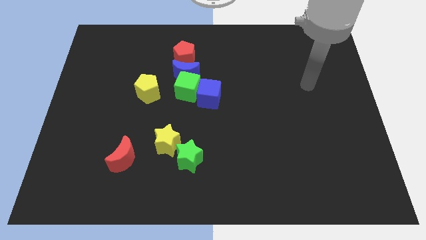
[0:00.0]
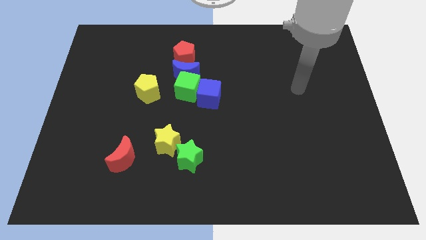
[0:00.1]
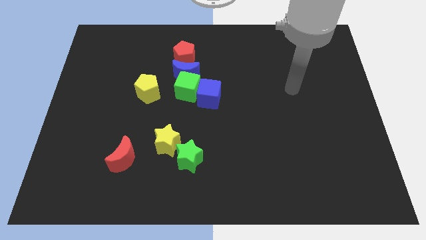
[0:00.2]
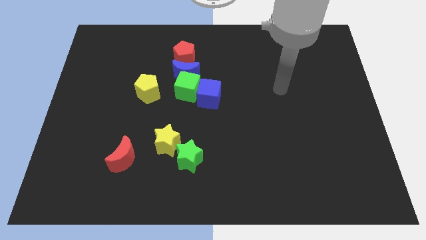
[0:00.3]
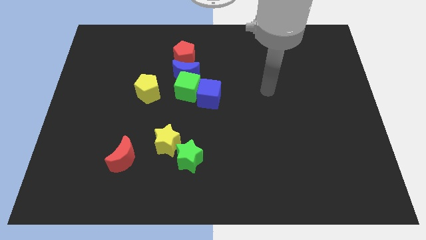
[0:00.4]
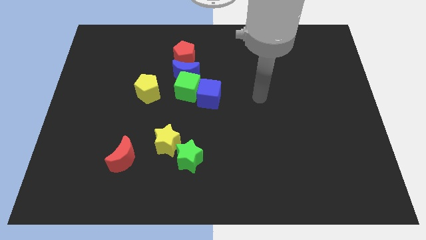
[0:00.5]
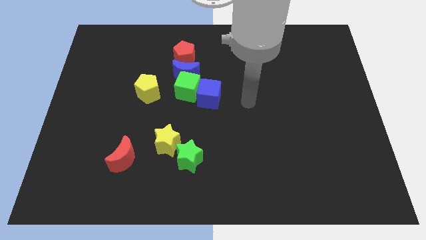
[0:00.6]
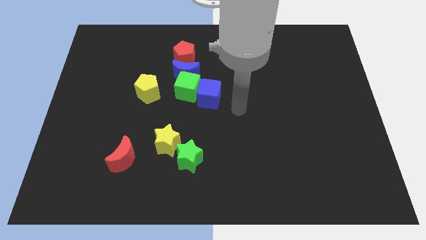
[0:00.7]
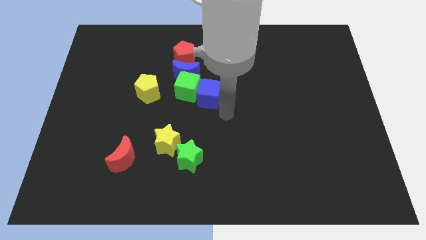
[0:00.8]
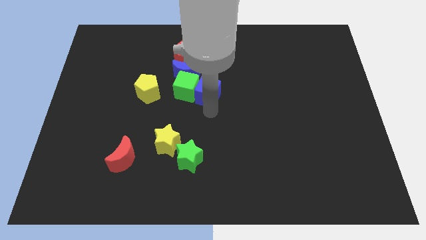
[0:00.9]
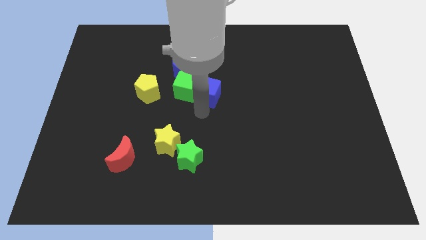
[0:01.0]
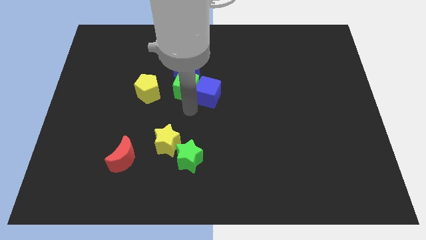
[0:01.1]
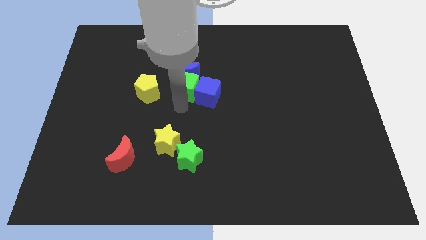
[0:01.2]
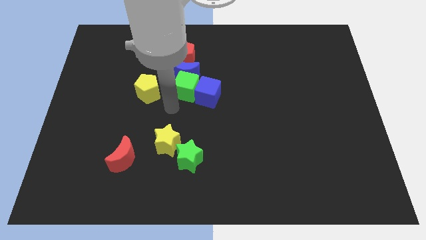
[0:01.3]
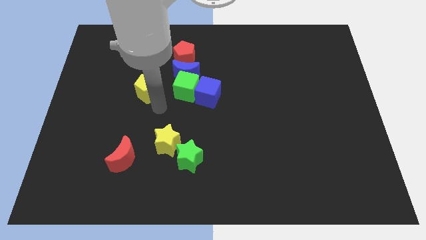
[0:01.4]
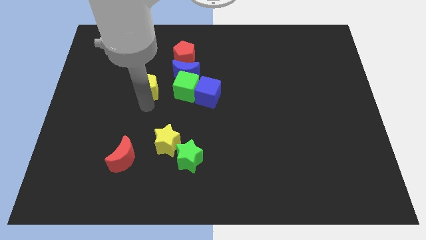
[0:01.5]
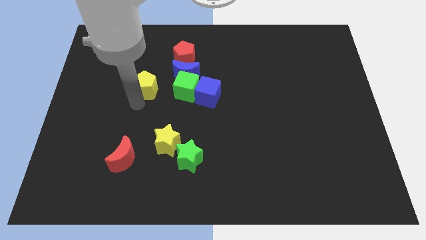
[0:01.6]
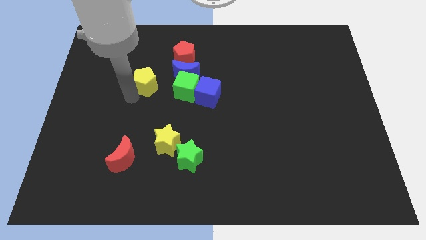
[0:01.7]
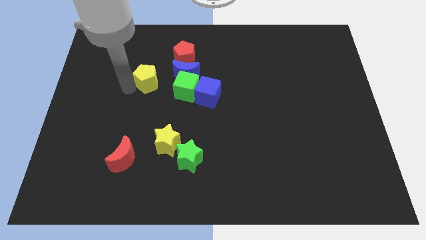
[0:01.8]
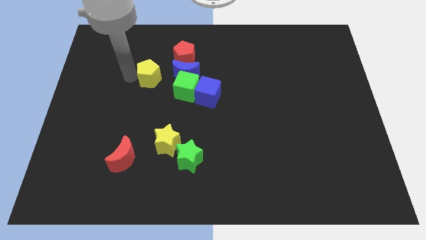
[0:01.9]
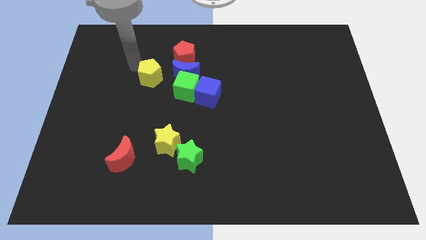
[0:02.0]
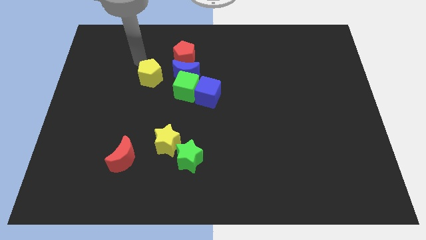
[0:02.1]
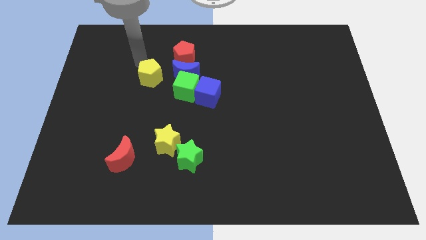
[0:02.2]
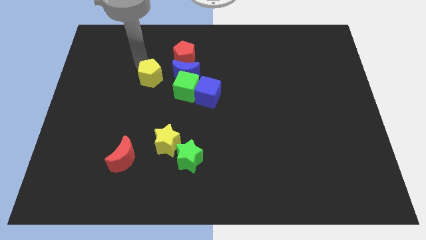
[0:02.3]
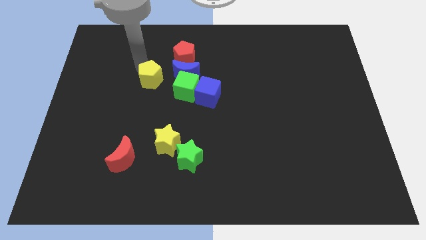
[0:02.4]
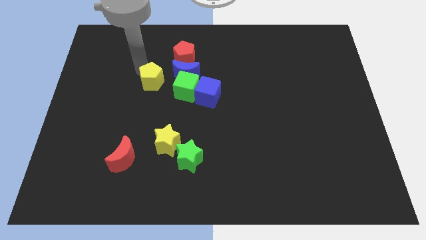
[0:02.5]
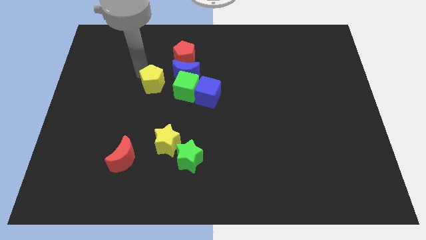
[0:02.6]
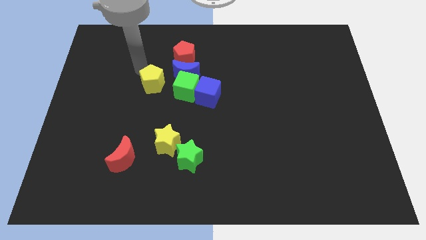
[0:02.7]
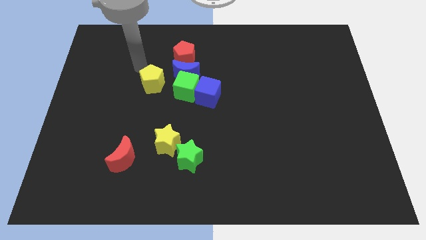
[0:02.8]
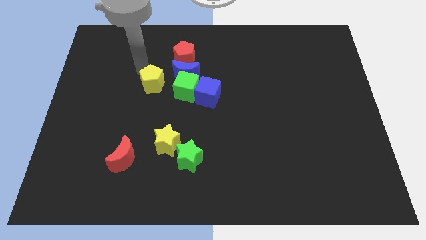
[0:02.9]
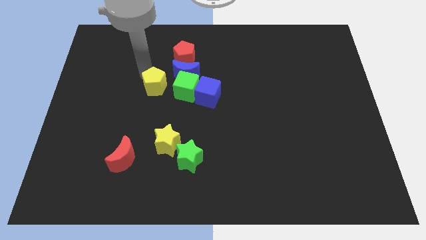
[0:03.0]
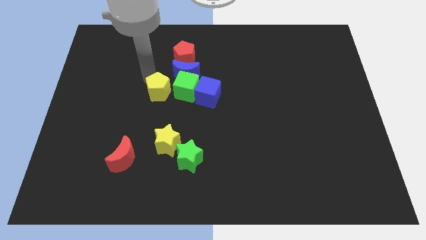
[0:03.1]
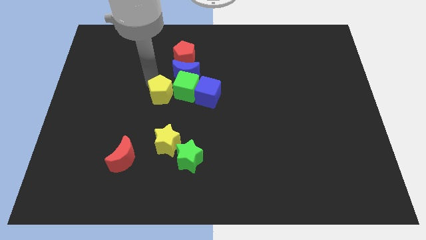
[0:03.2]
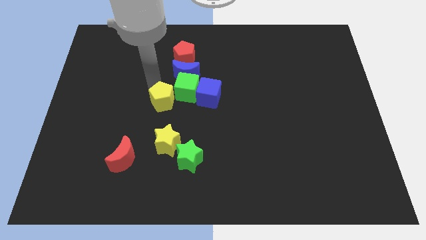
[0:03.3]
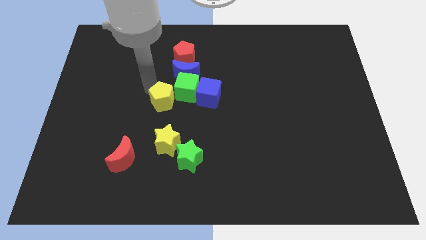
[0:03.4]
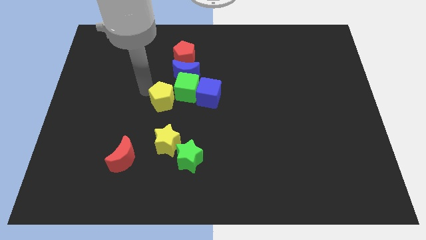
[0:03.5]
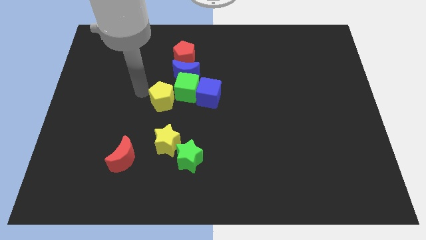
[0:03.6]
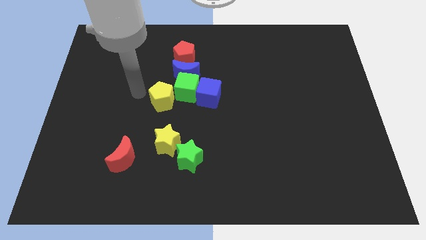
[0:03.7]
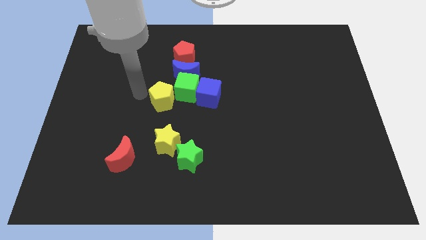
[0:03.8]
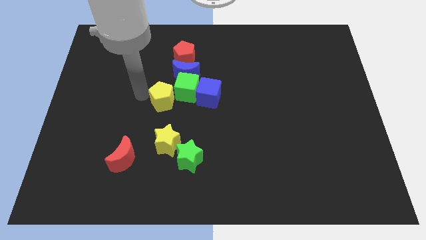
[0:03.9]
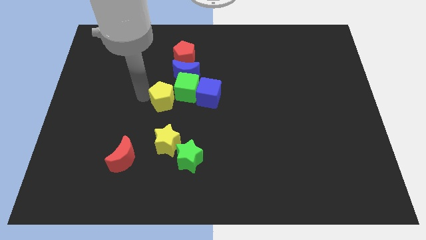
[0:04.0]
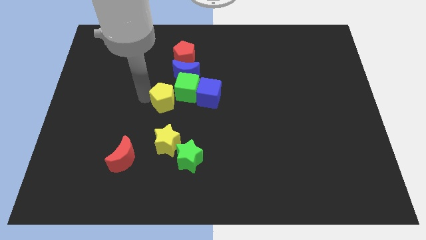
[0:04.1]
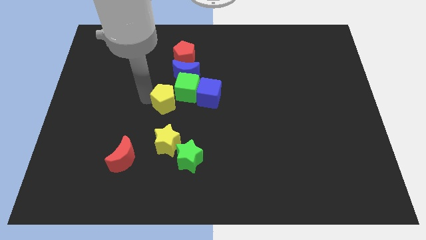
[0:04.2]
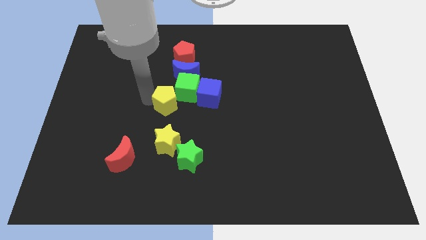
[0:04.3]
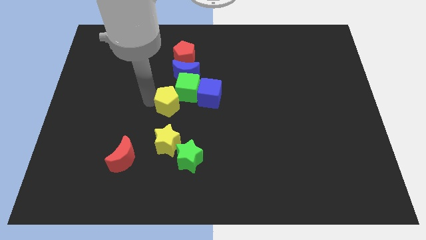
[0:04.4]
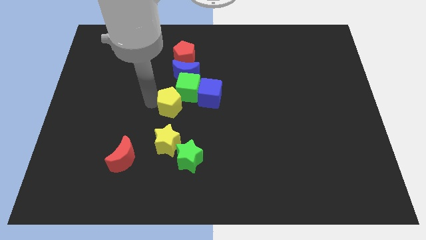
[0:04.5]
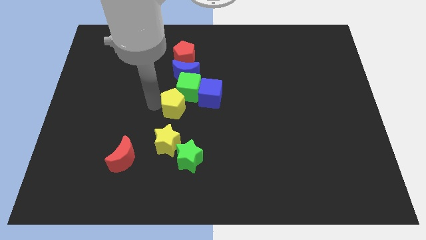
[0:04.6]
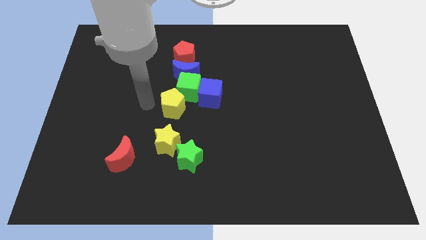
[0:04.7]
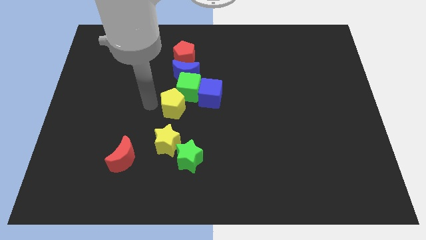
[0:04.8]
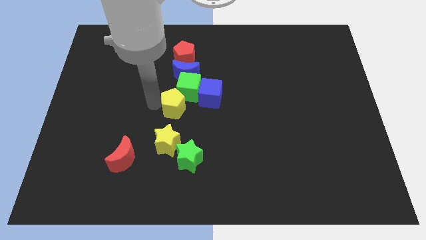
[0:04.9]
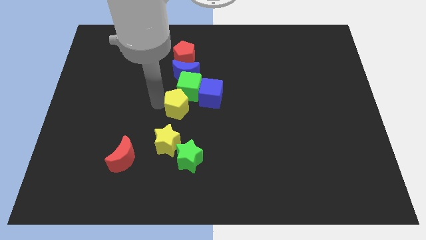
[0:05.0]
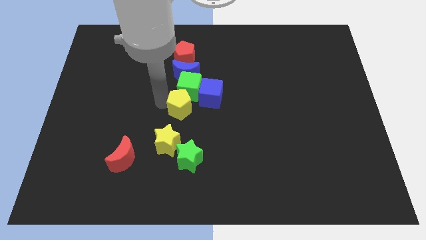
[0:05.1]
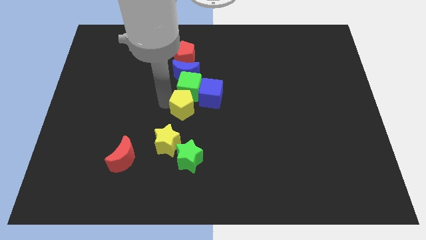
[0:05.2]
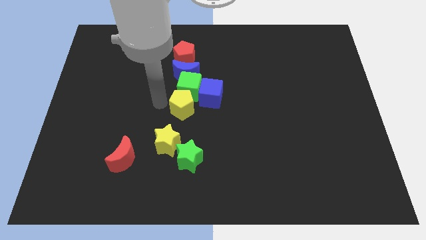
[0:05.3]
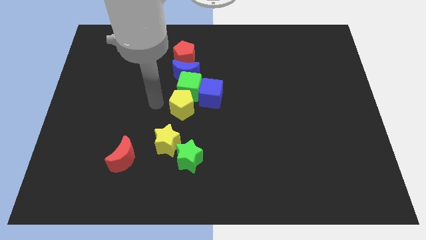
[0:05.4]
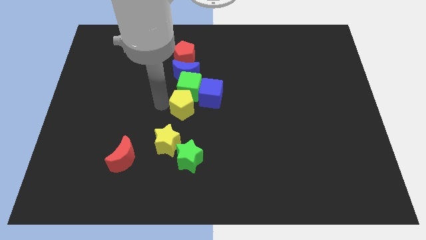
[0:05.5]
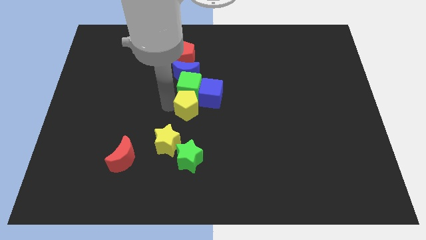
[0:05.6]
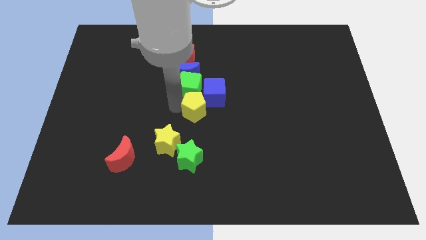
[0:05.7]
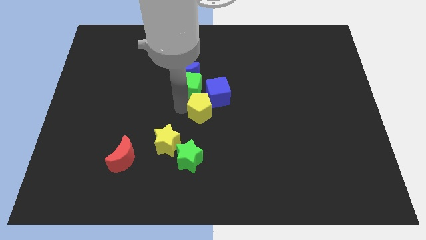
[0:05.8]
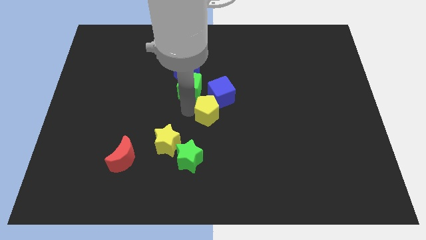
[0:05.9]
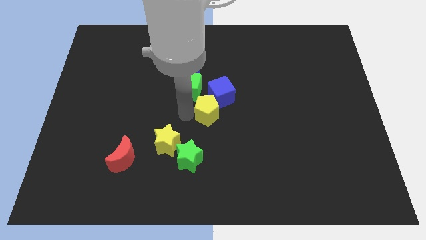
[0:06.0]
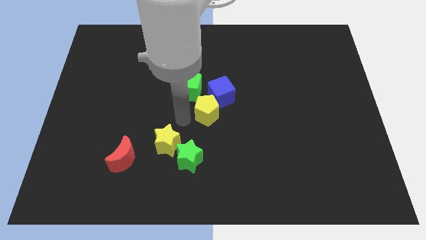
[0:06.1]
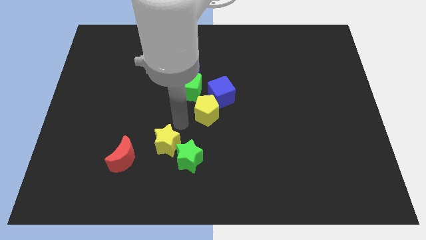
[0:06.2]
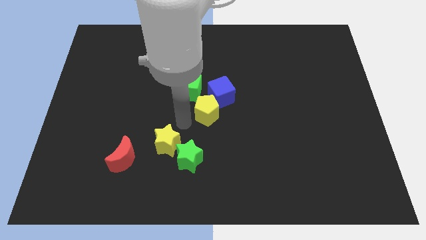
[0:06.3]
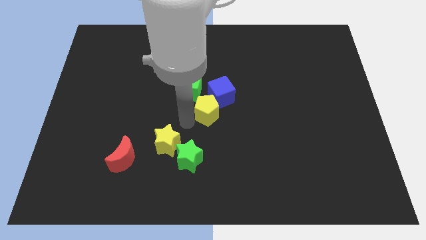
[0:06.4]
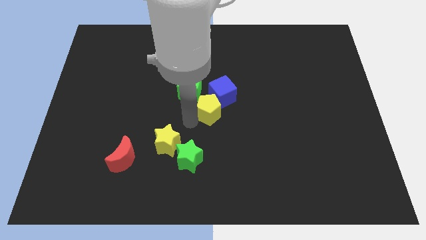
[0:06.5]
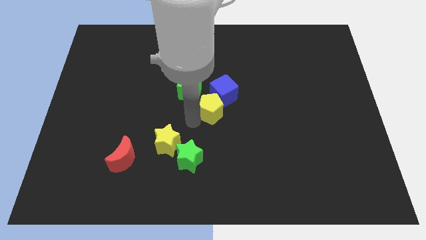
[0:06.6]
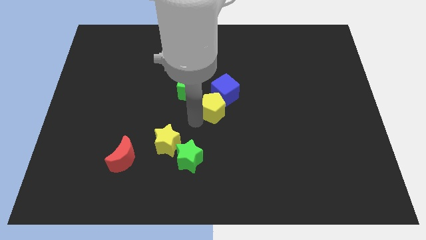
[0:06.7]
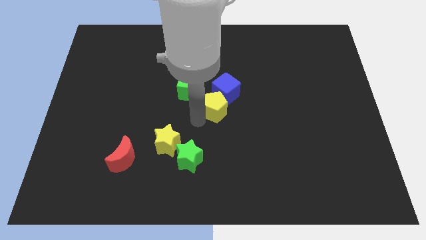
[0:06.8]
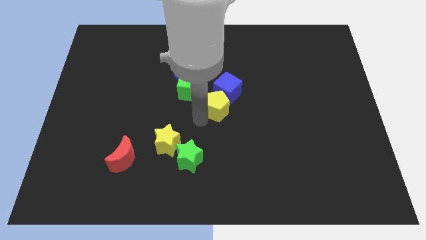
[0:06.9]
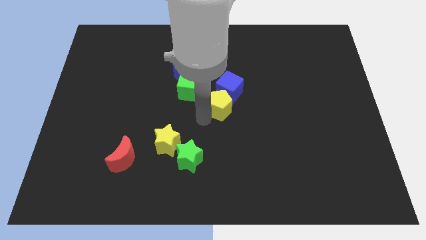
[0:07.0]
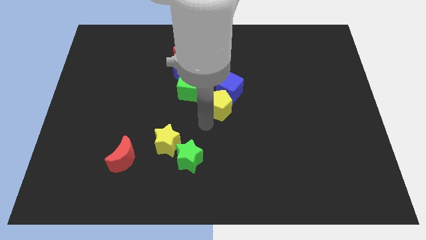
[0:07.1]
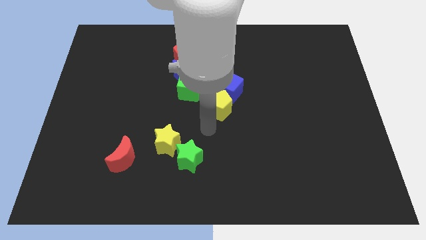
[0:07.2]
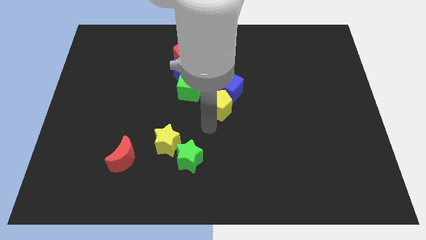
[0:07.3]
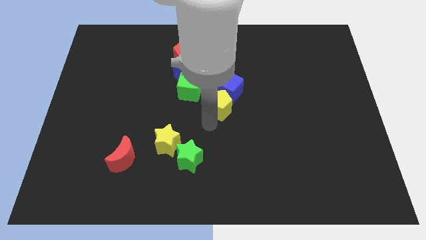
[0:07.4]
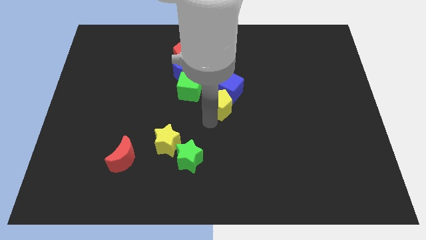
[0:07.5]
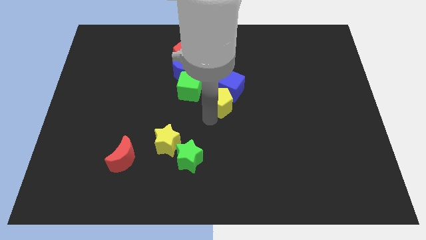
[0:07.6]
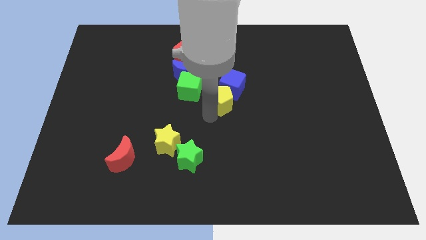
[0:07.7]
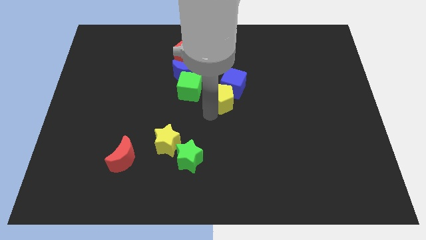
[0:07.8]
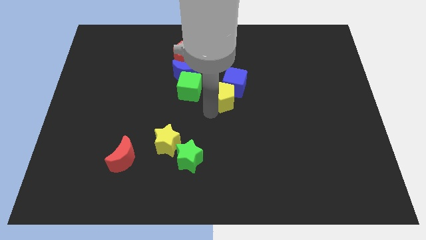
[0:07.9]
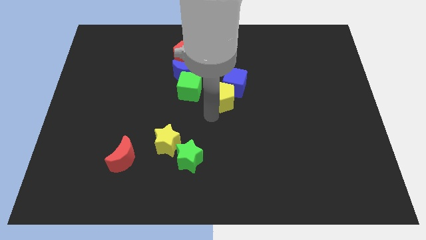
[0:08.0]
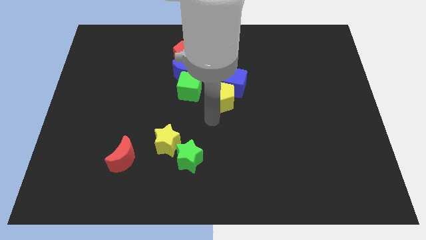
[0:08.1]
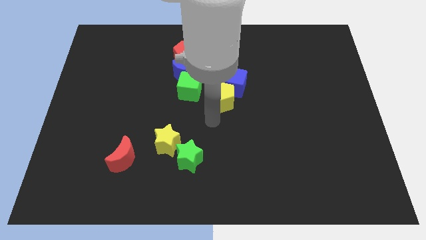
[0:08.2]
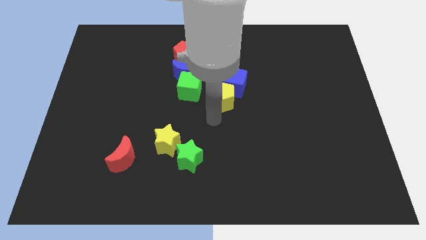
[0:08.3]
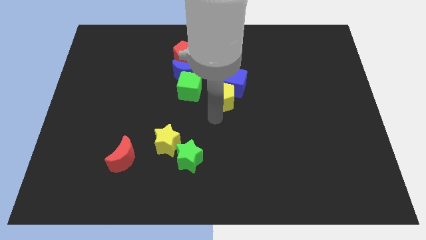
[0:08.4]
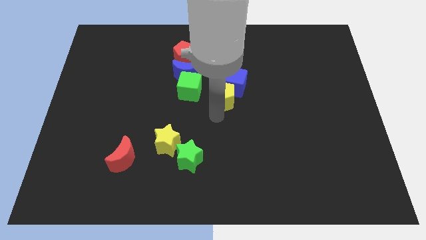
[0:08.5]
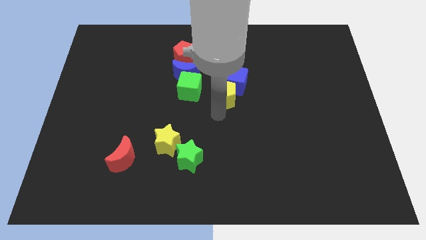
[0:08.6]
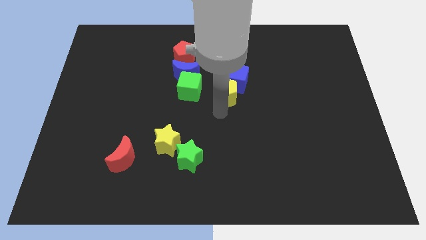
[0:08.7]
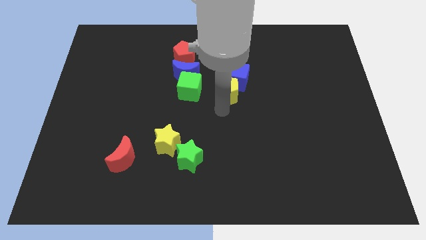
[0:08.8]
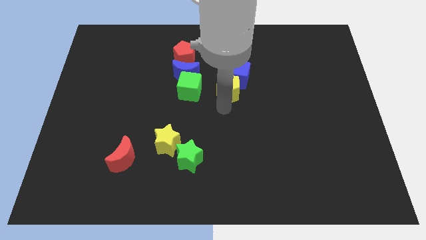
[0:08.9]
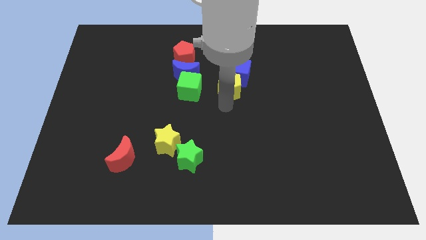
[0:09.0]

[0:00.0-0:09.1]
put the yellow pentagon to the right side of the blue moon
